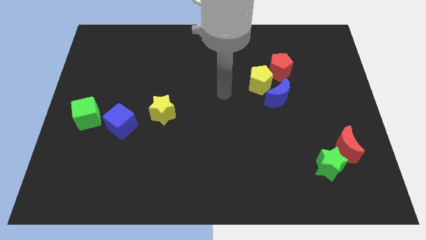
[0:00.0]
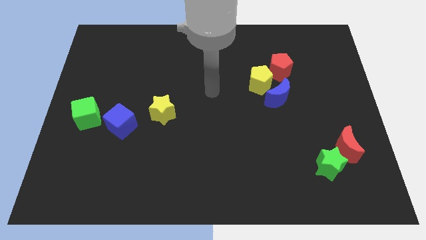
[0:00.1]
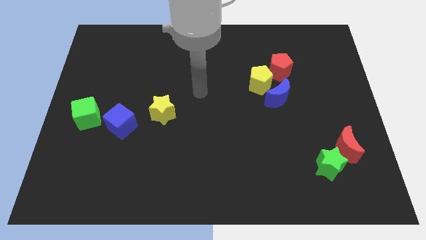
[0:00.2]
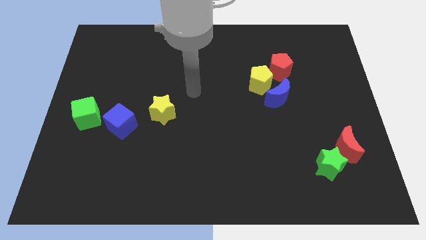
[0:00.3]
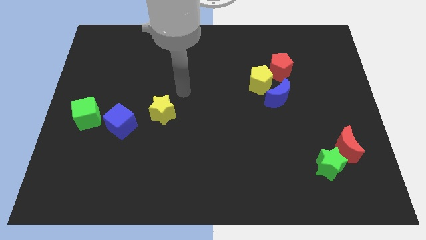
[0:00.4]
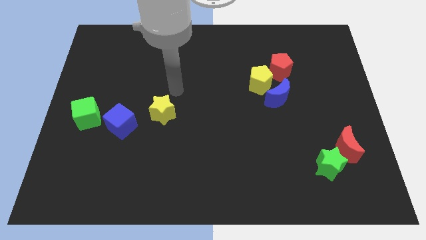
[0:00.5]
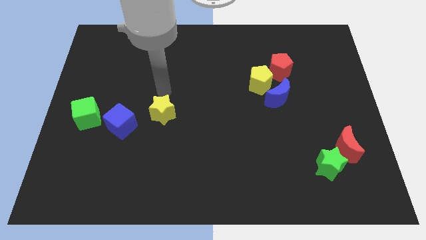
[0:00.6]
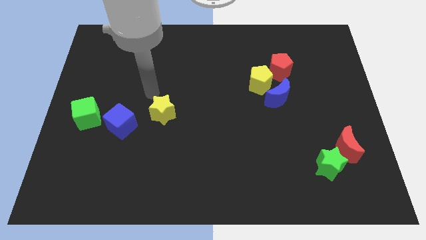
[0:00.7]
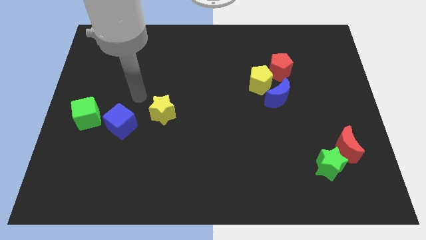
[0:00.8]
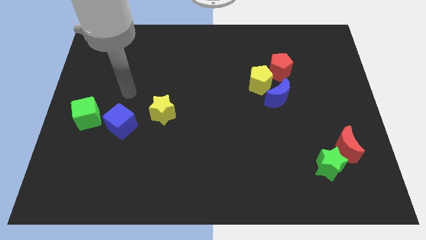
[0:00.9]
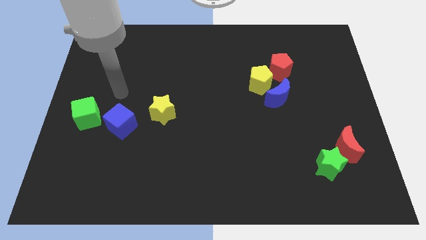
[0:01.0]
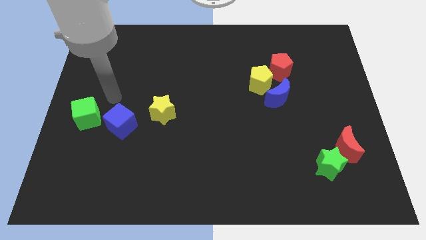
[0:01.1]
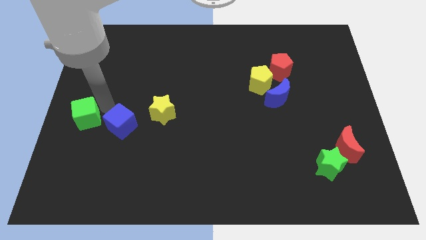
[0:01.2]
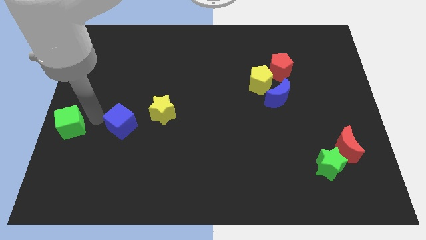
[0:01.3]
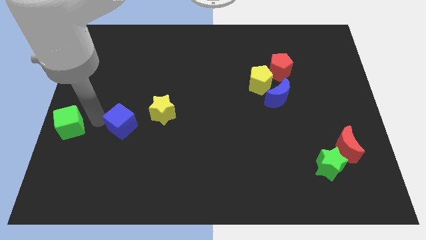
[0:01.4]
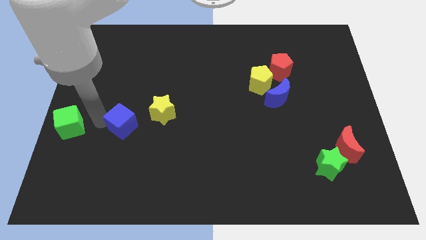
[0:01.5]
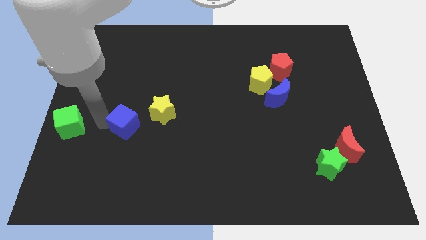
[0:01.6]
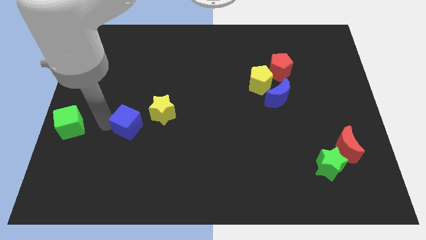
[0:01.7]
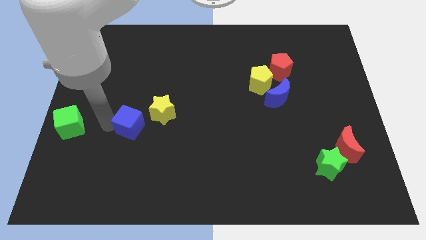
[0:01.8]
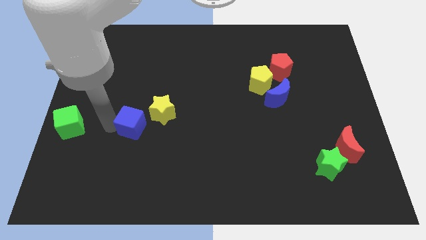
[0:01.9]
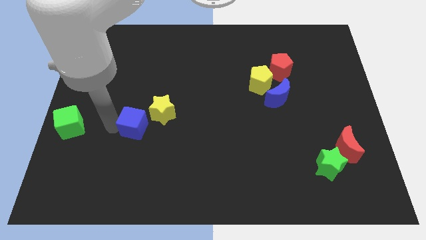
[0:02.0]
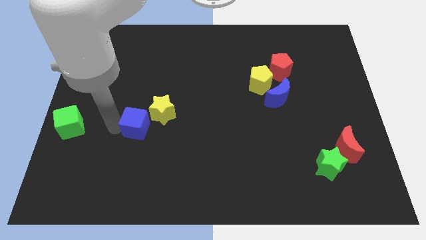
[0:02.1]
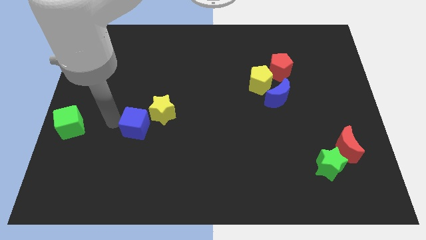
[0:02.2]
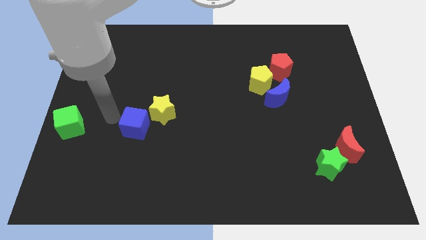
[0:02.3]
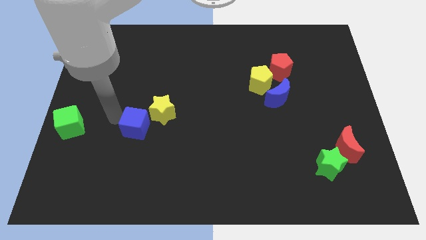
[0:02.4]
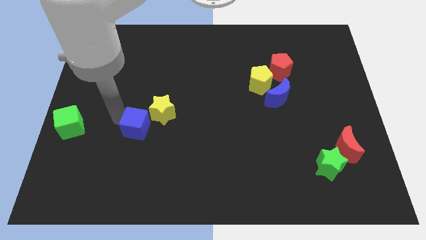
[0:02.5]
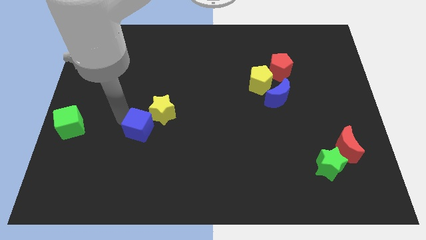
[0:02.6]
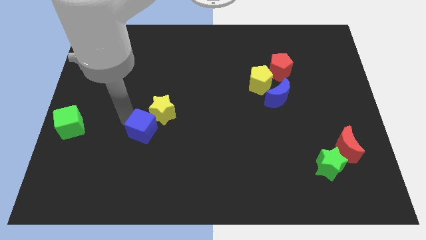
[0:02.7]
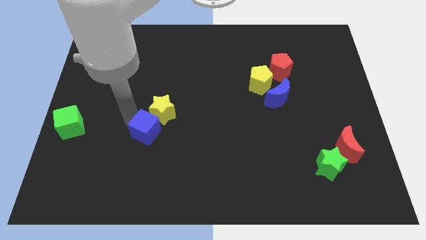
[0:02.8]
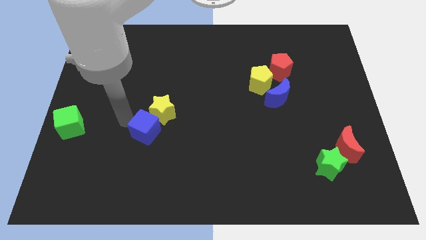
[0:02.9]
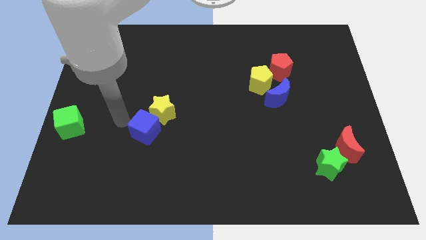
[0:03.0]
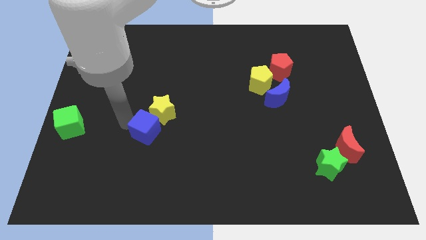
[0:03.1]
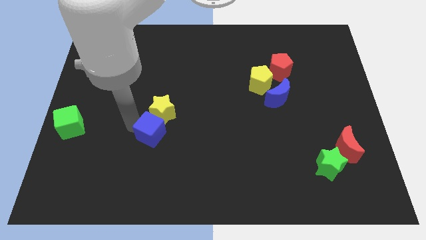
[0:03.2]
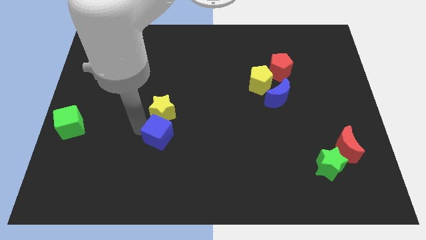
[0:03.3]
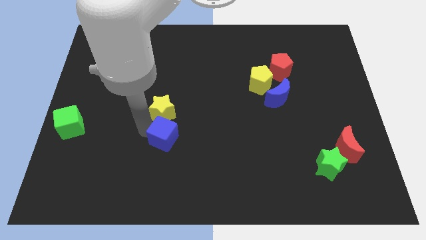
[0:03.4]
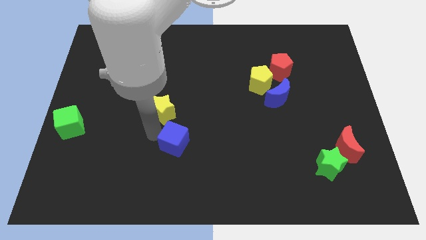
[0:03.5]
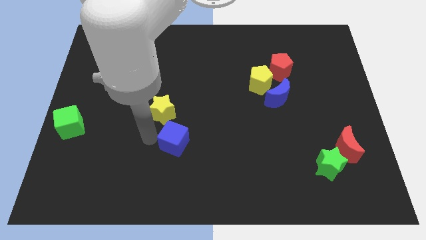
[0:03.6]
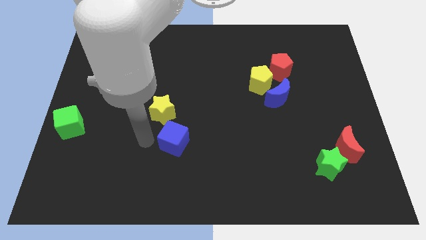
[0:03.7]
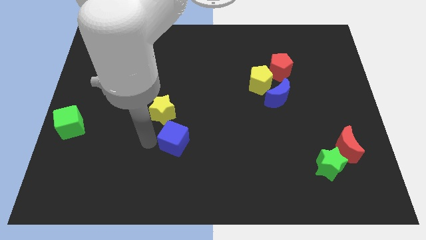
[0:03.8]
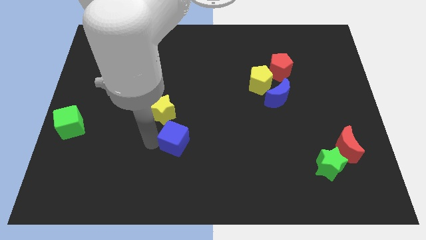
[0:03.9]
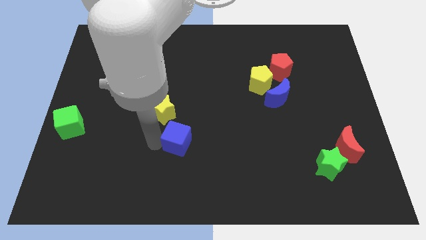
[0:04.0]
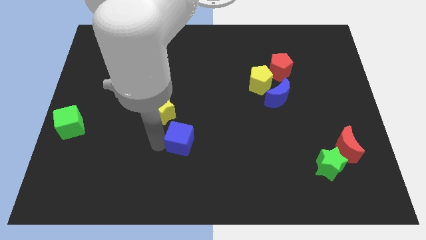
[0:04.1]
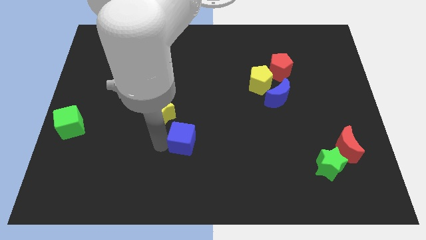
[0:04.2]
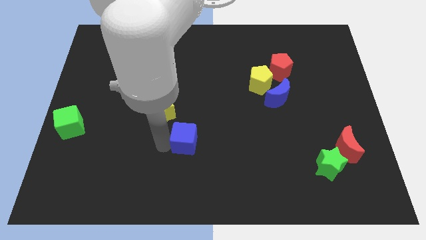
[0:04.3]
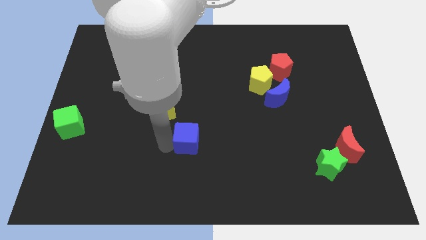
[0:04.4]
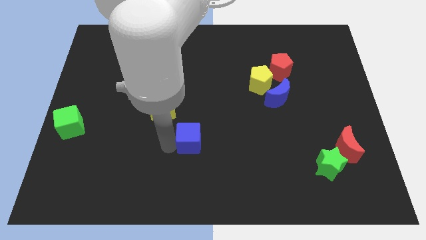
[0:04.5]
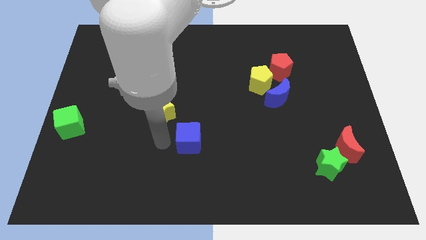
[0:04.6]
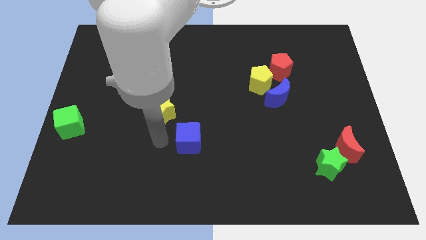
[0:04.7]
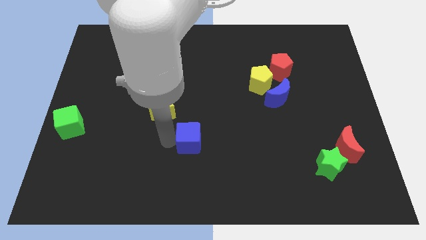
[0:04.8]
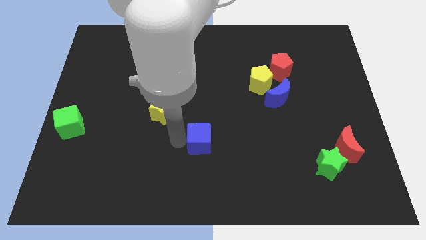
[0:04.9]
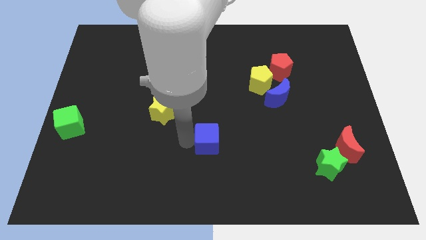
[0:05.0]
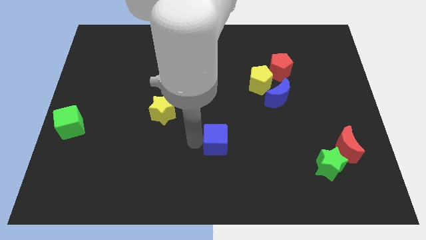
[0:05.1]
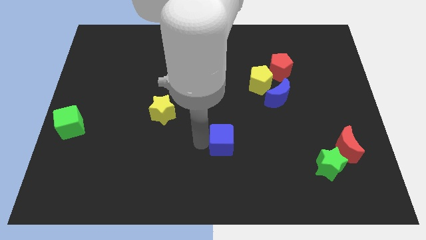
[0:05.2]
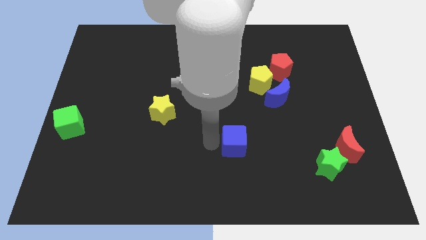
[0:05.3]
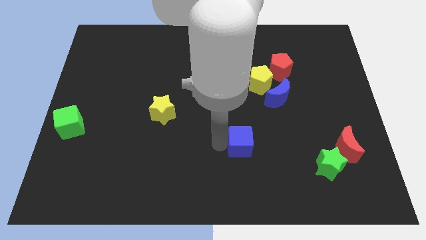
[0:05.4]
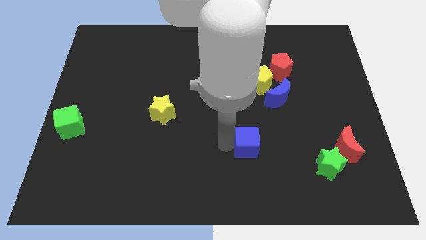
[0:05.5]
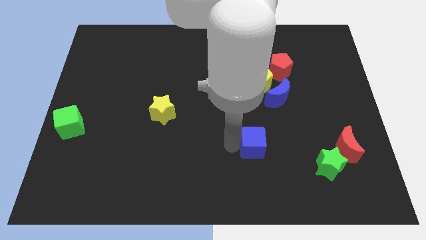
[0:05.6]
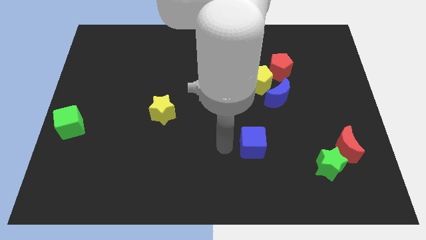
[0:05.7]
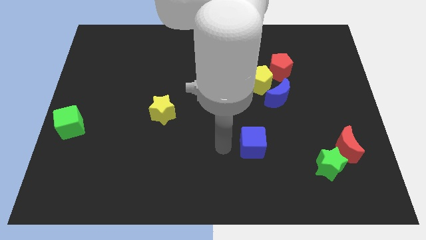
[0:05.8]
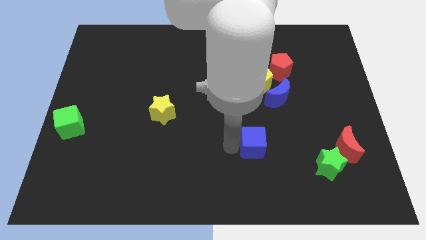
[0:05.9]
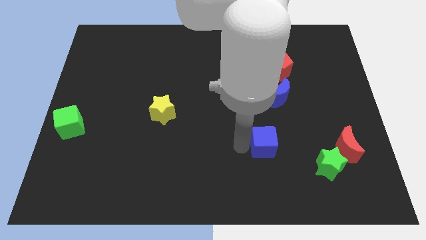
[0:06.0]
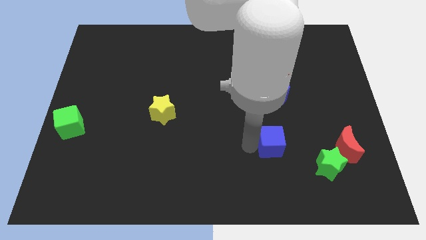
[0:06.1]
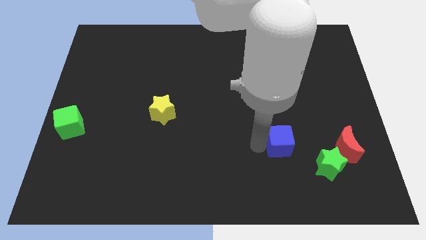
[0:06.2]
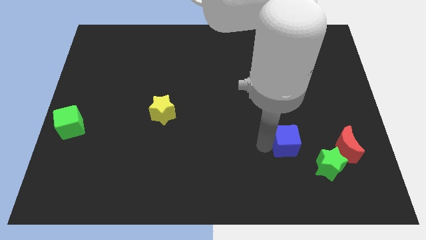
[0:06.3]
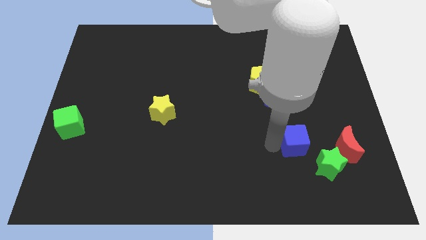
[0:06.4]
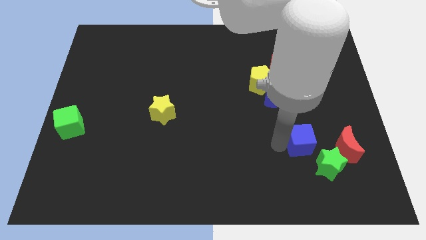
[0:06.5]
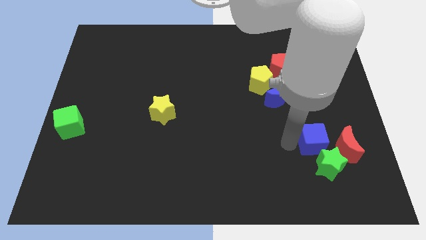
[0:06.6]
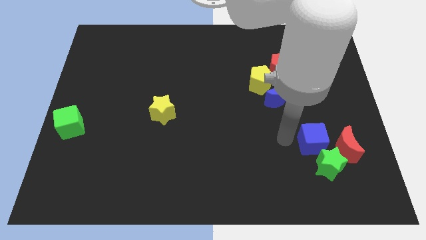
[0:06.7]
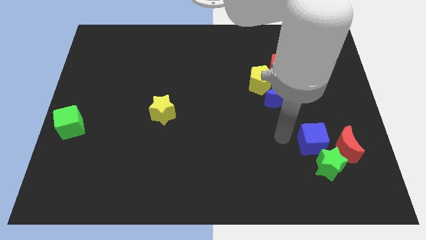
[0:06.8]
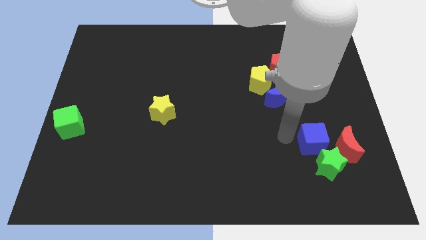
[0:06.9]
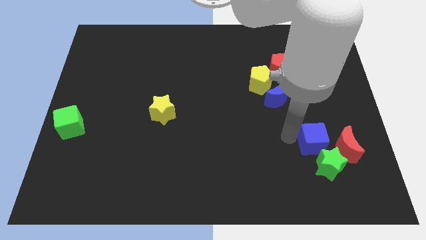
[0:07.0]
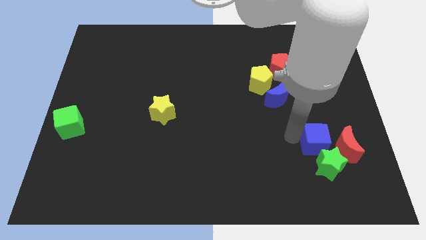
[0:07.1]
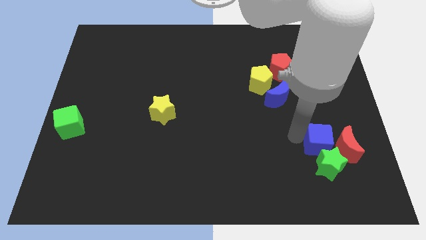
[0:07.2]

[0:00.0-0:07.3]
push the blue cube next to the red moon
